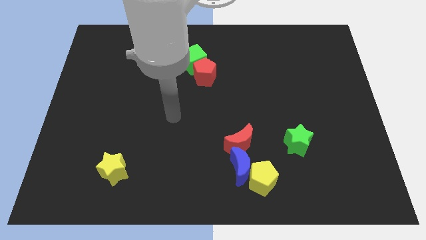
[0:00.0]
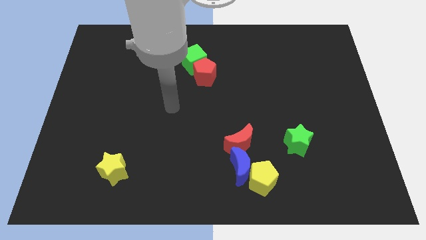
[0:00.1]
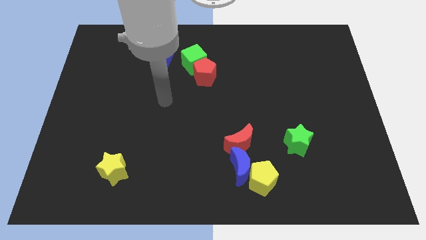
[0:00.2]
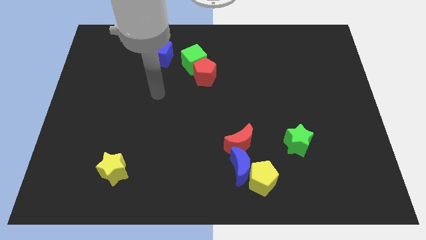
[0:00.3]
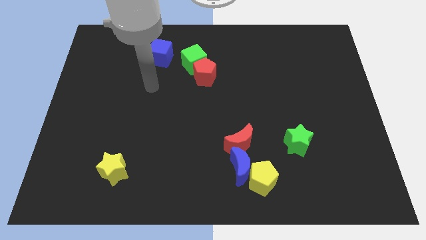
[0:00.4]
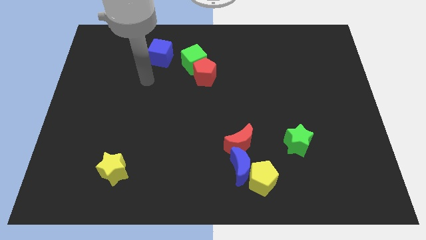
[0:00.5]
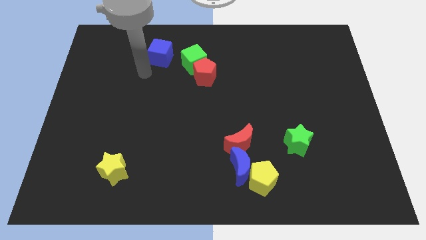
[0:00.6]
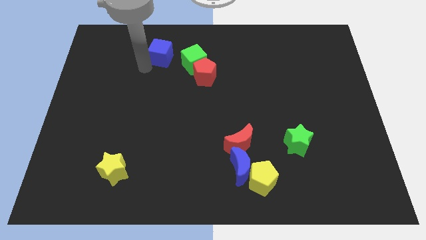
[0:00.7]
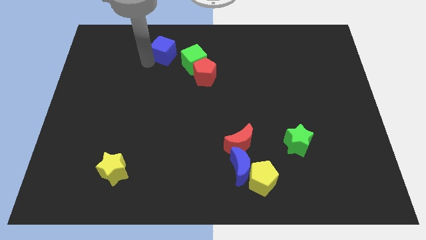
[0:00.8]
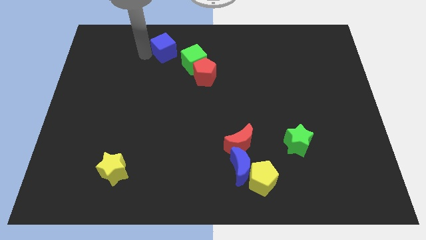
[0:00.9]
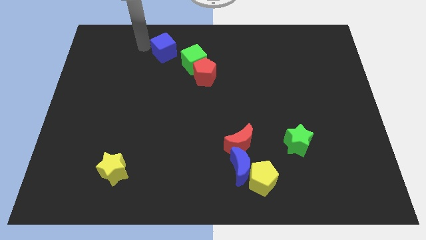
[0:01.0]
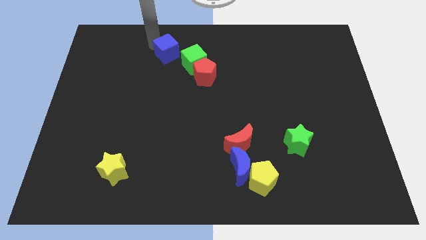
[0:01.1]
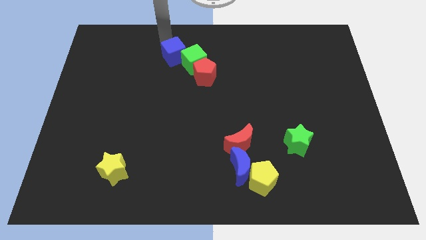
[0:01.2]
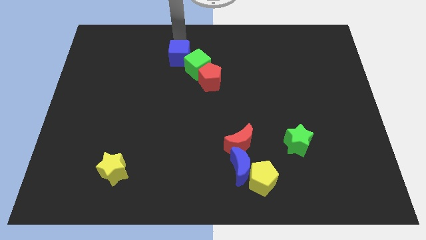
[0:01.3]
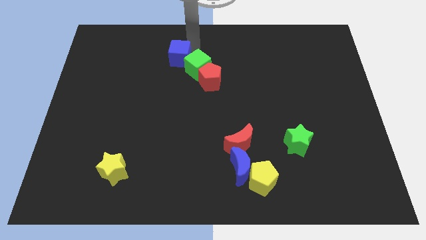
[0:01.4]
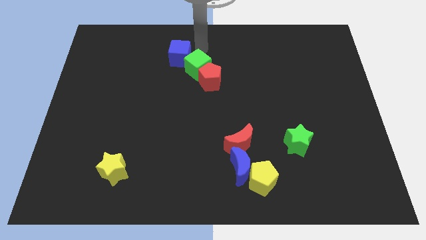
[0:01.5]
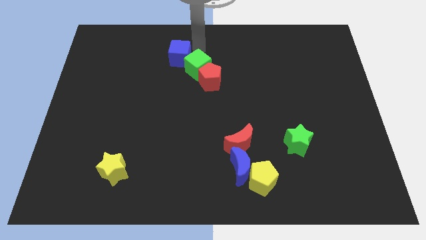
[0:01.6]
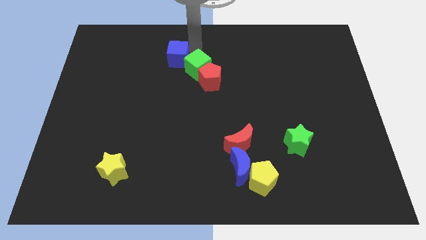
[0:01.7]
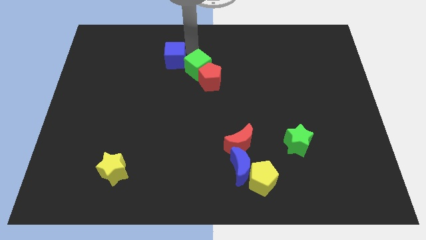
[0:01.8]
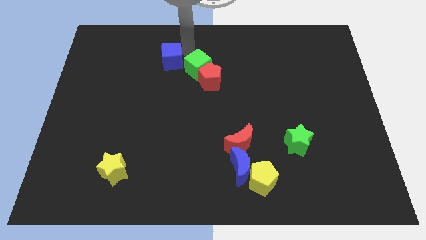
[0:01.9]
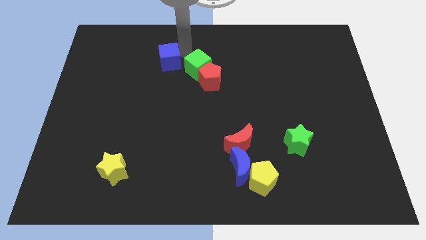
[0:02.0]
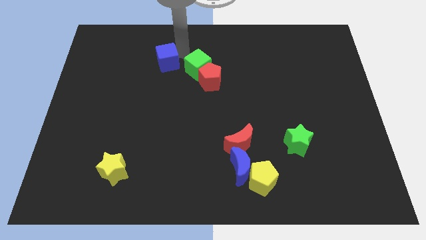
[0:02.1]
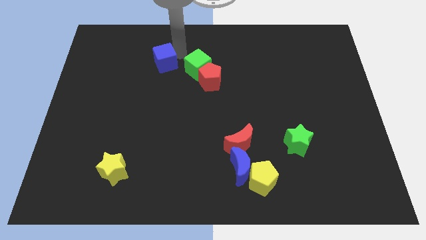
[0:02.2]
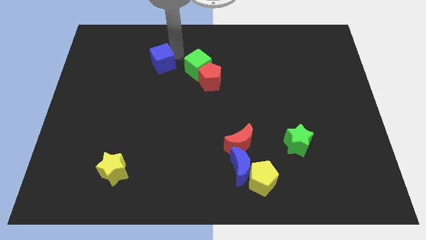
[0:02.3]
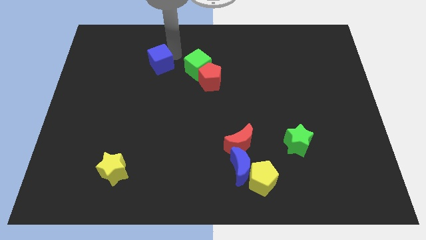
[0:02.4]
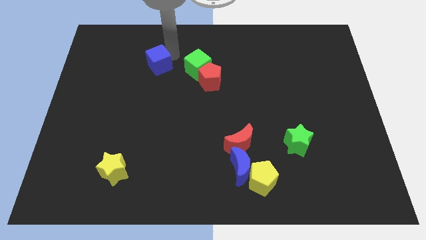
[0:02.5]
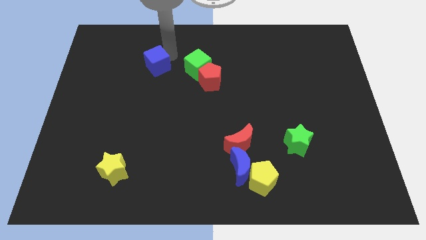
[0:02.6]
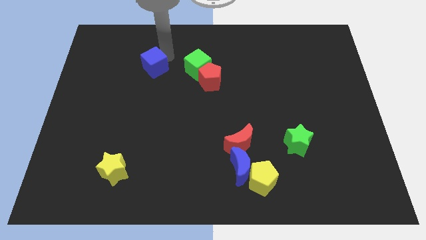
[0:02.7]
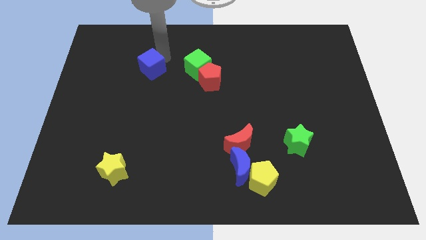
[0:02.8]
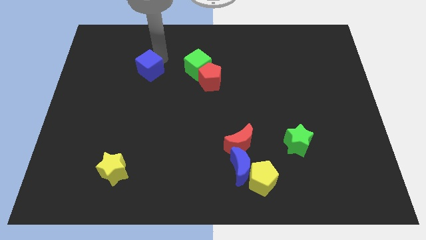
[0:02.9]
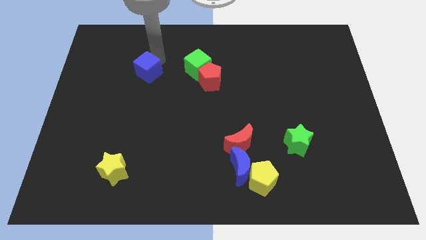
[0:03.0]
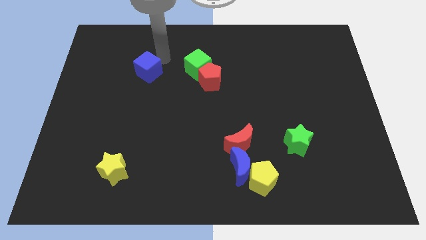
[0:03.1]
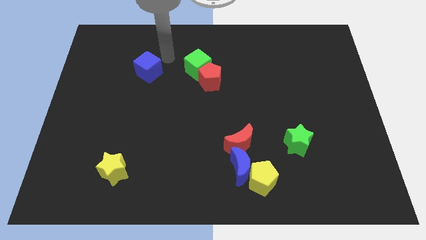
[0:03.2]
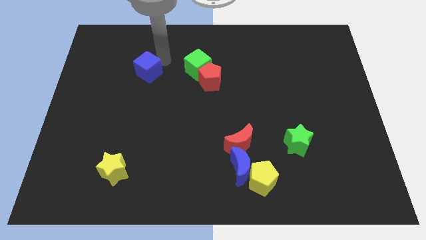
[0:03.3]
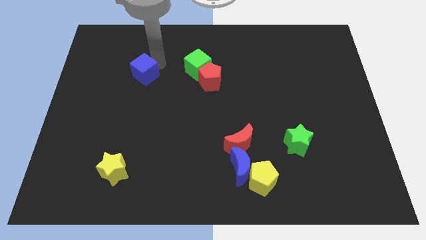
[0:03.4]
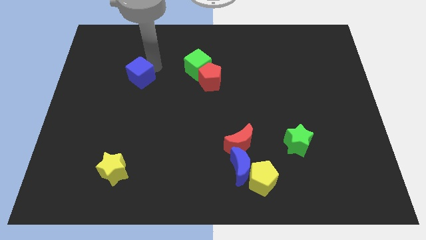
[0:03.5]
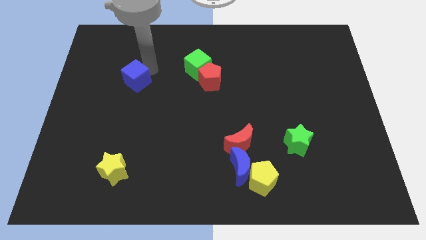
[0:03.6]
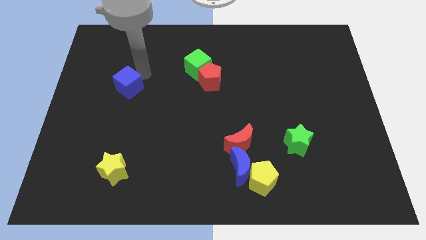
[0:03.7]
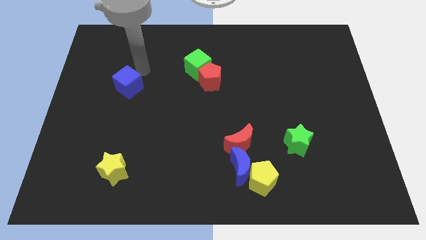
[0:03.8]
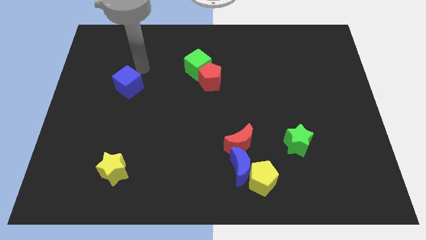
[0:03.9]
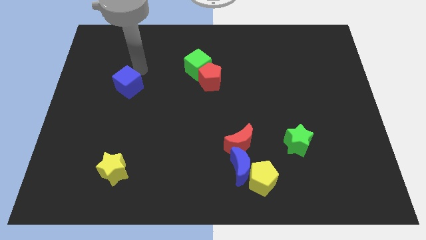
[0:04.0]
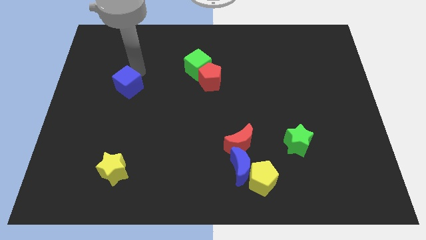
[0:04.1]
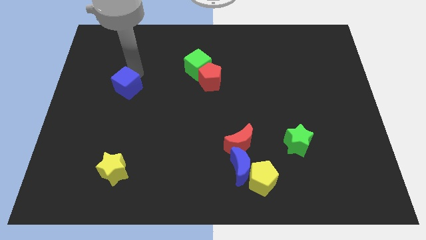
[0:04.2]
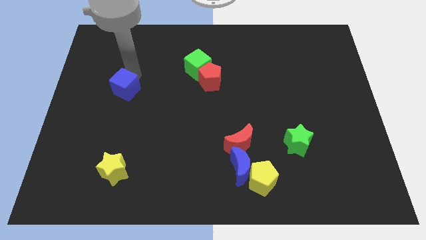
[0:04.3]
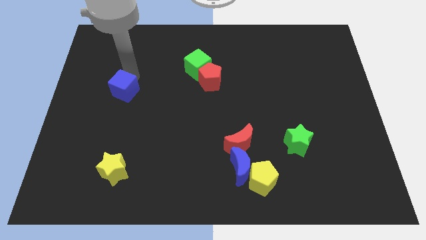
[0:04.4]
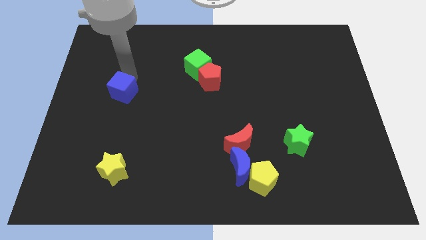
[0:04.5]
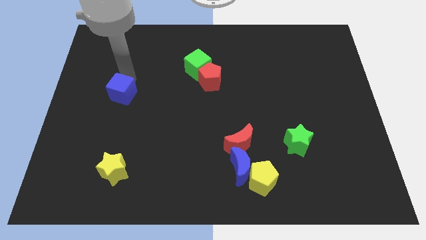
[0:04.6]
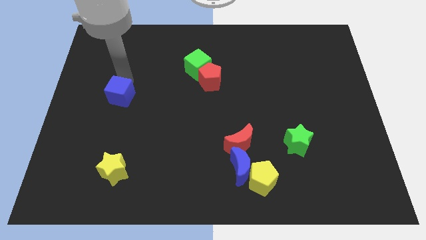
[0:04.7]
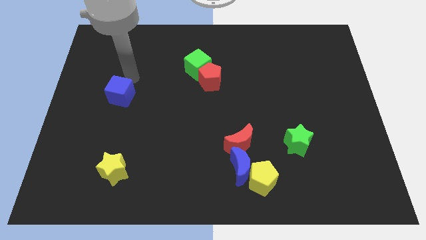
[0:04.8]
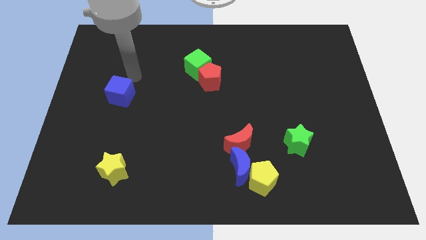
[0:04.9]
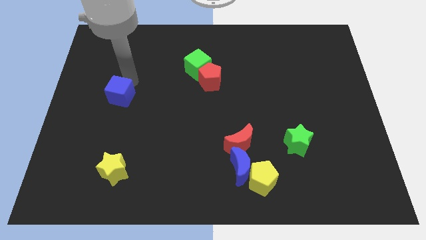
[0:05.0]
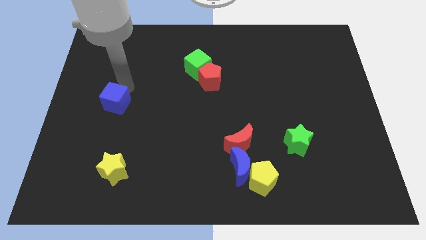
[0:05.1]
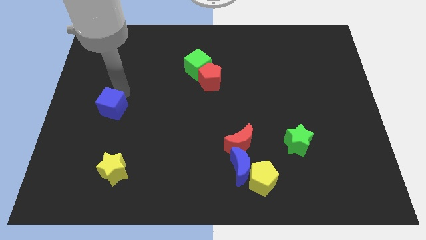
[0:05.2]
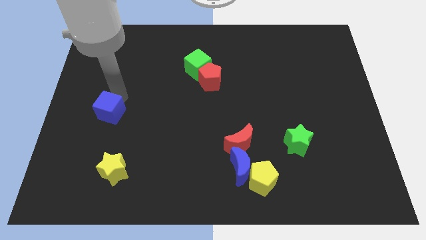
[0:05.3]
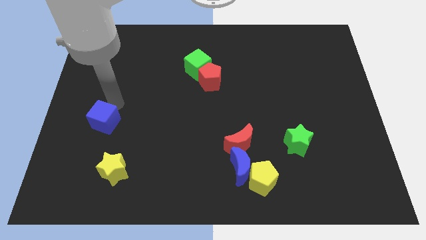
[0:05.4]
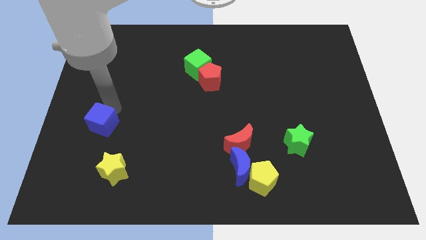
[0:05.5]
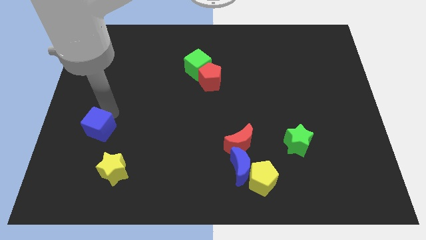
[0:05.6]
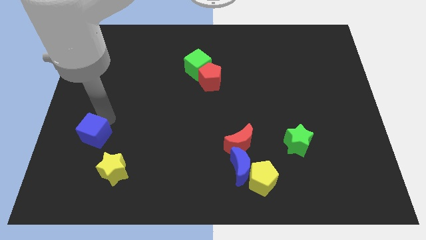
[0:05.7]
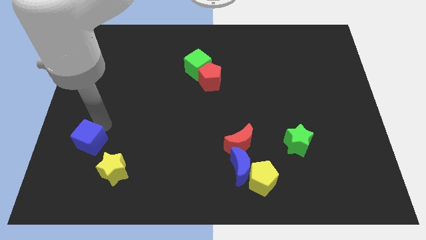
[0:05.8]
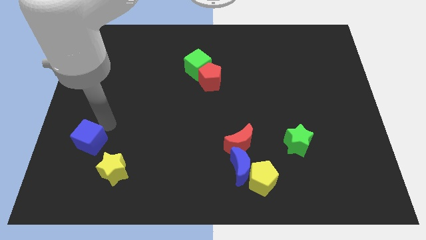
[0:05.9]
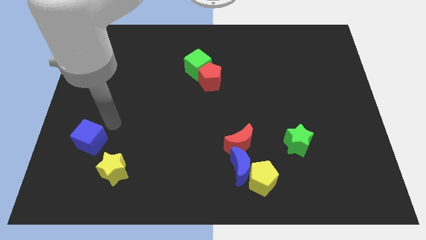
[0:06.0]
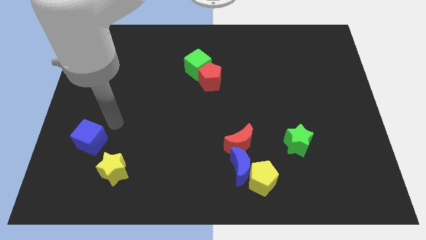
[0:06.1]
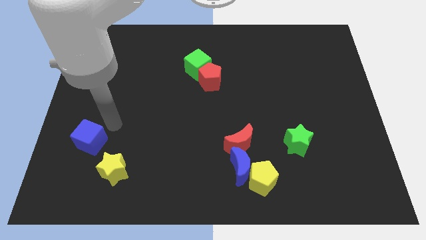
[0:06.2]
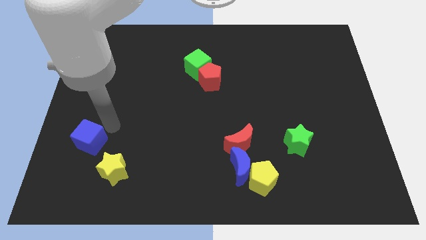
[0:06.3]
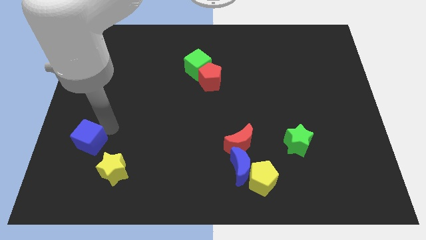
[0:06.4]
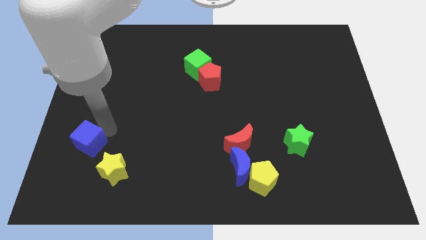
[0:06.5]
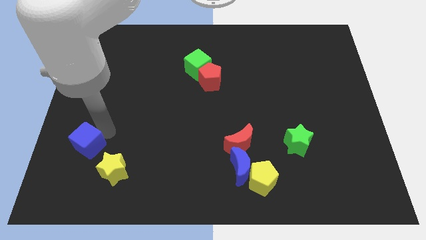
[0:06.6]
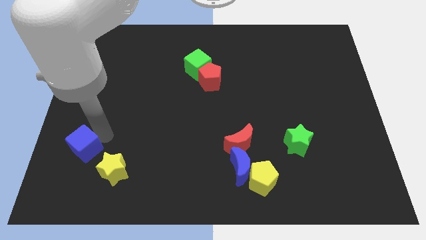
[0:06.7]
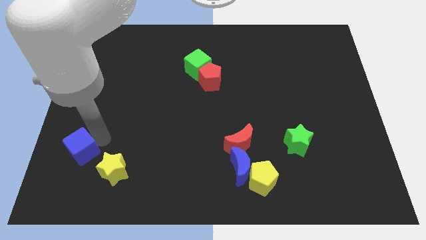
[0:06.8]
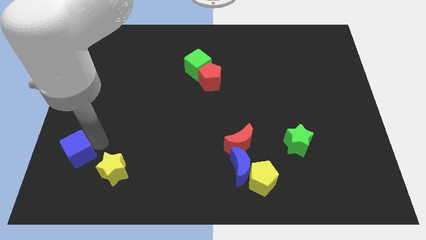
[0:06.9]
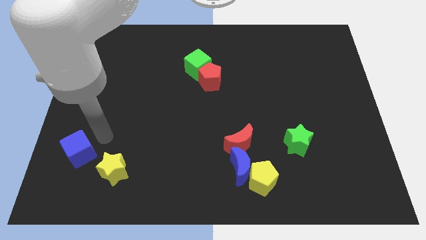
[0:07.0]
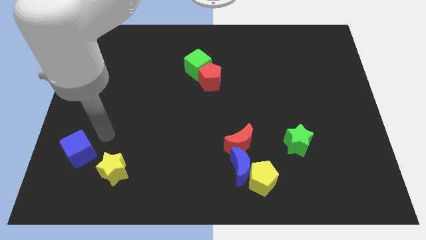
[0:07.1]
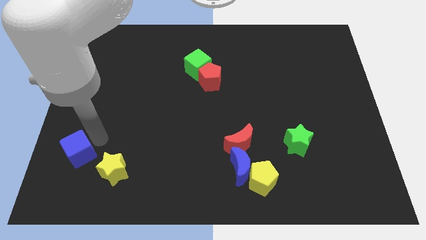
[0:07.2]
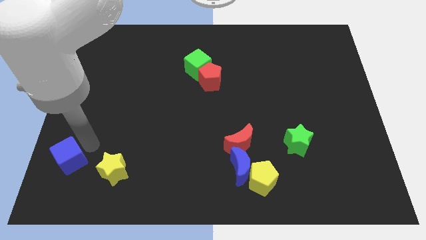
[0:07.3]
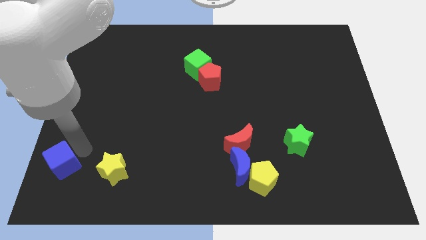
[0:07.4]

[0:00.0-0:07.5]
move the blue cube to the bottom left corner
